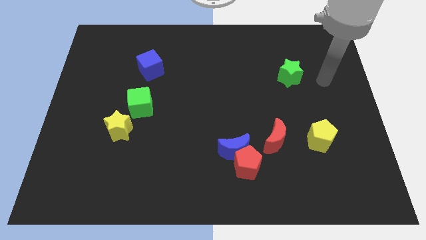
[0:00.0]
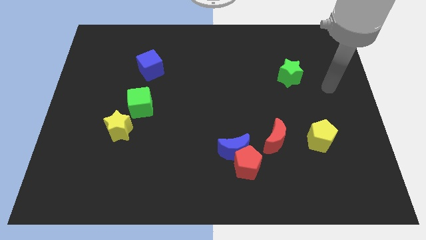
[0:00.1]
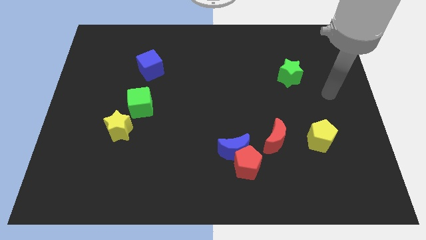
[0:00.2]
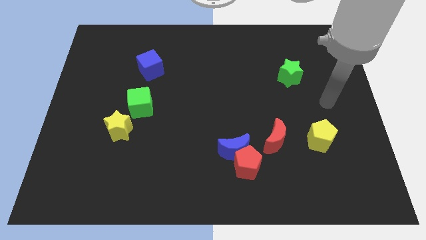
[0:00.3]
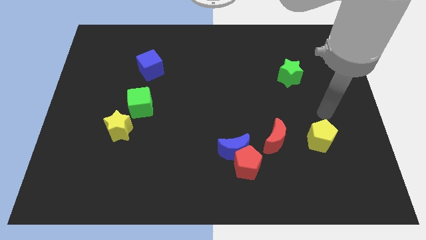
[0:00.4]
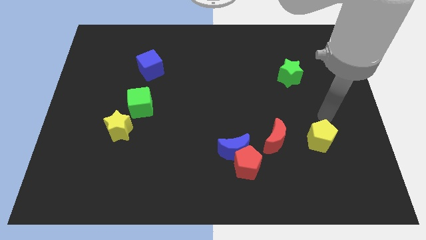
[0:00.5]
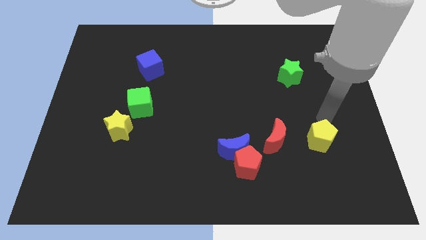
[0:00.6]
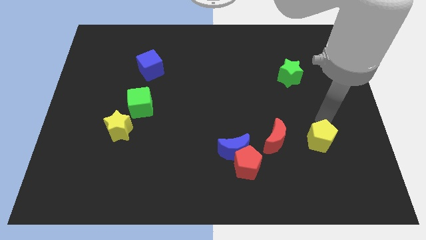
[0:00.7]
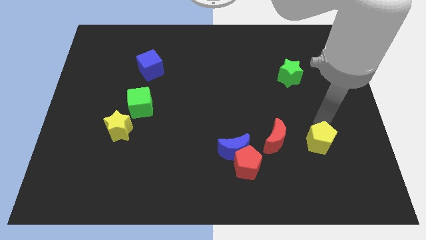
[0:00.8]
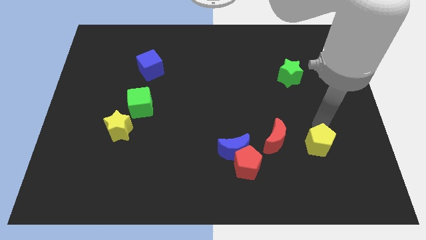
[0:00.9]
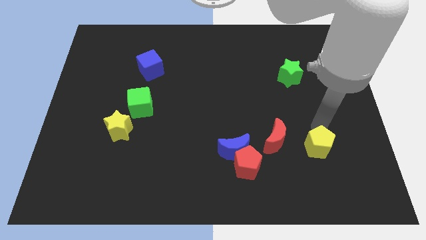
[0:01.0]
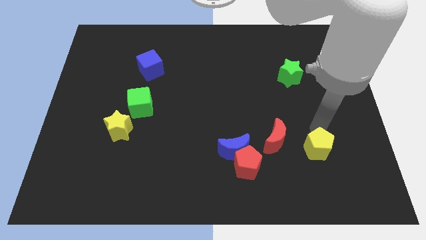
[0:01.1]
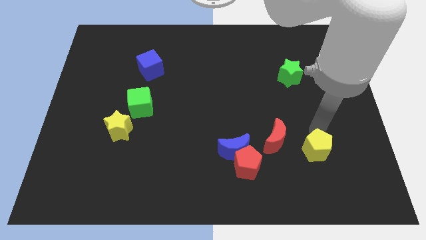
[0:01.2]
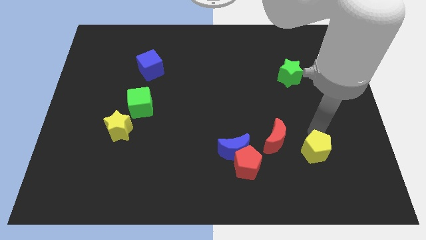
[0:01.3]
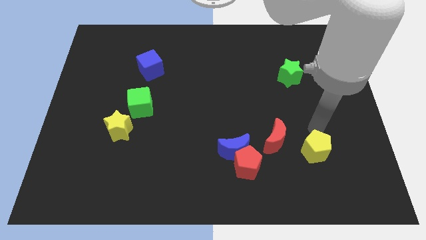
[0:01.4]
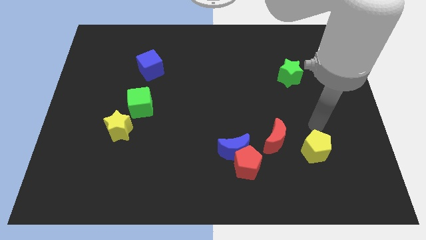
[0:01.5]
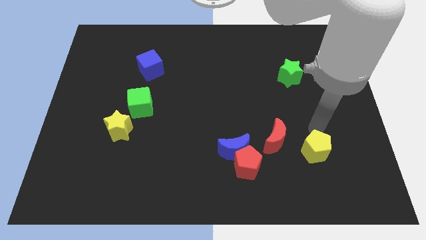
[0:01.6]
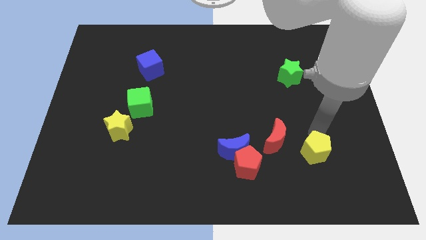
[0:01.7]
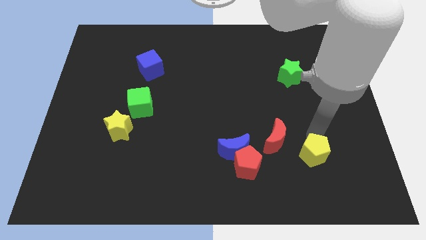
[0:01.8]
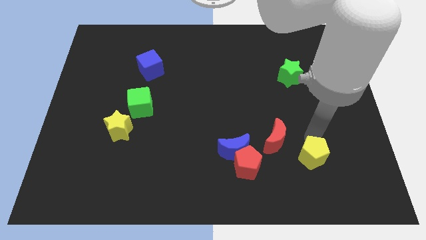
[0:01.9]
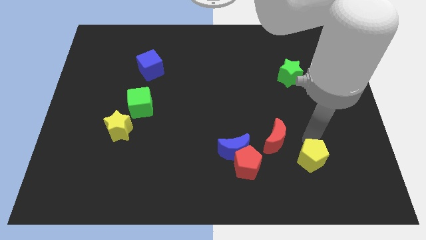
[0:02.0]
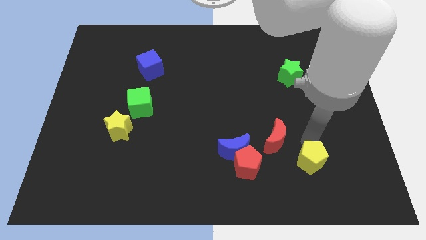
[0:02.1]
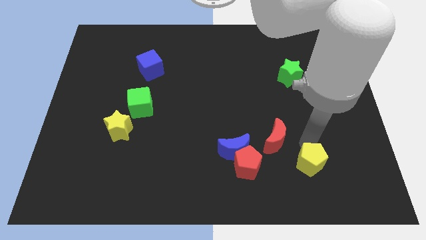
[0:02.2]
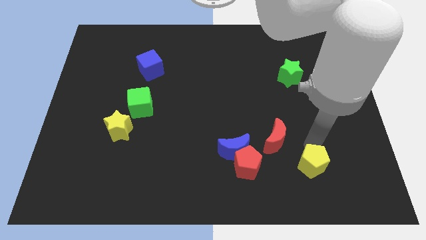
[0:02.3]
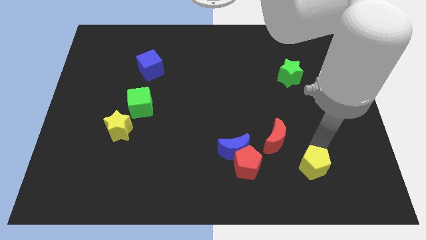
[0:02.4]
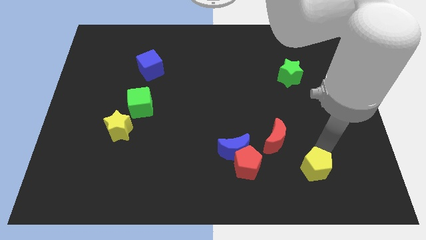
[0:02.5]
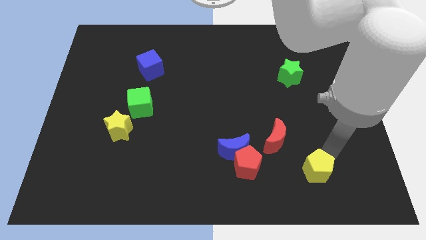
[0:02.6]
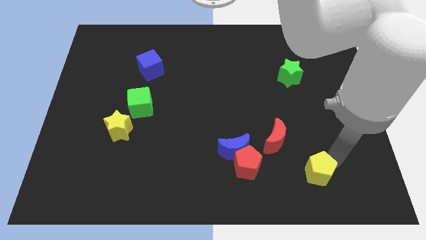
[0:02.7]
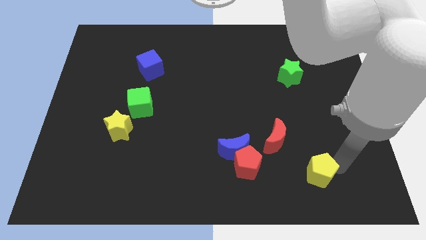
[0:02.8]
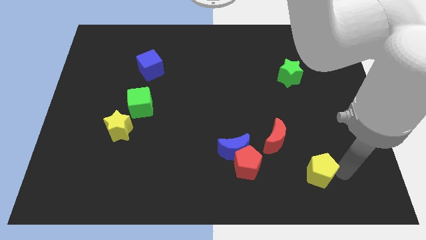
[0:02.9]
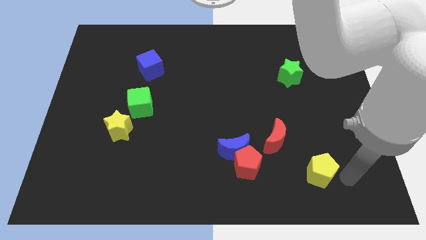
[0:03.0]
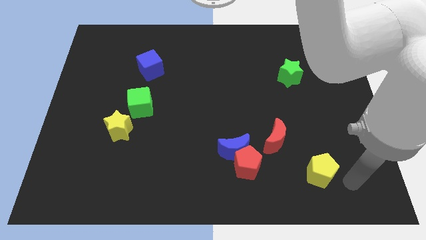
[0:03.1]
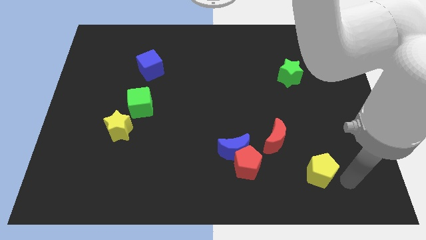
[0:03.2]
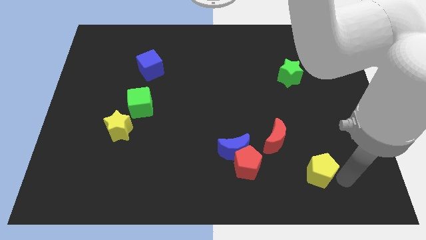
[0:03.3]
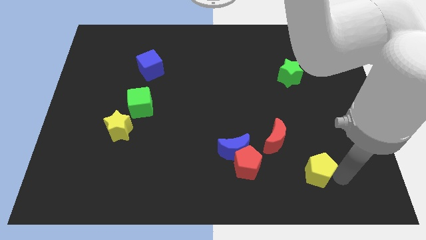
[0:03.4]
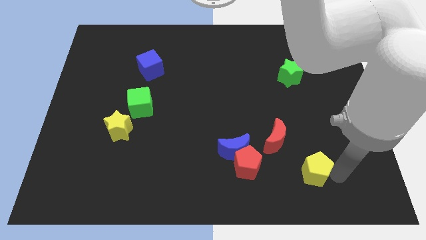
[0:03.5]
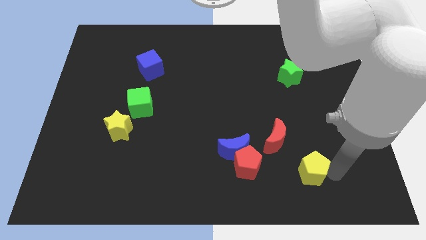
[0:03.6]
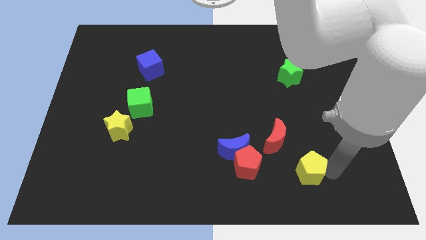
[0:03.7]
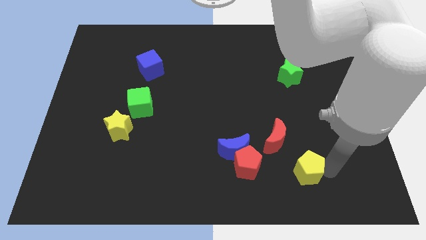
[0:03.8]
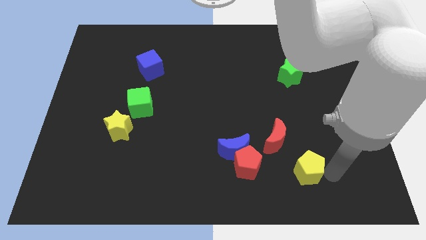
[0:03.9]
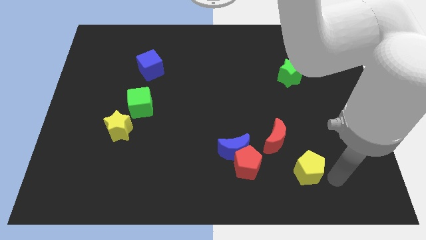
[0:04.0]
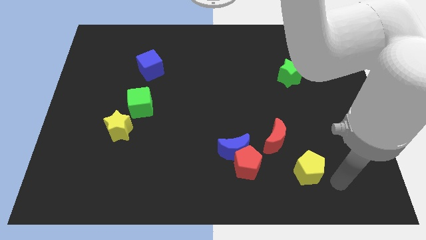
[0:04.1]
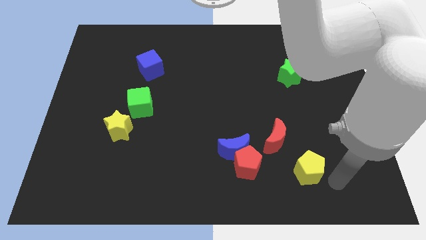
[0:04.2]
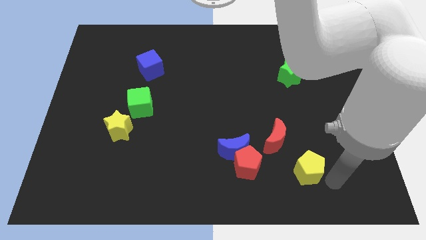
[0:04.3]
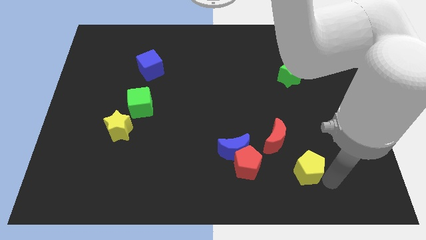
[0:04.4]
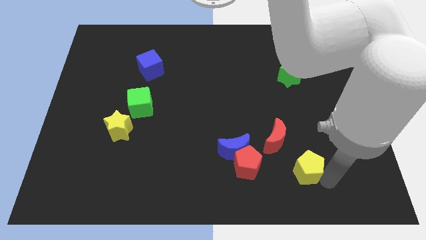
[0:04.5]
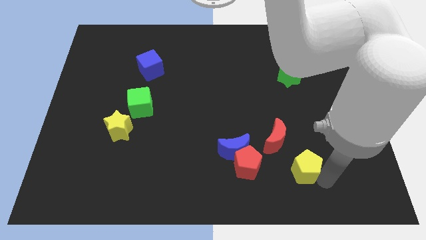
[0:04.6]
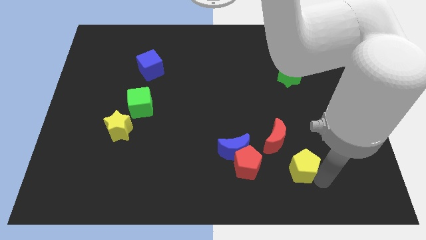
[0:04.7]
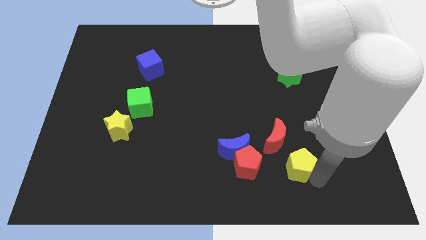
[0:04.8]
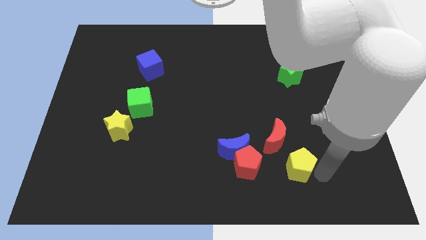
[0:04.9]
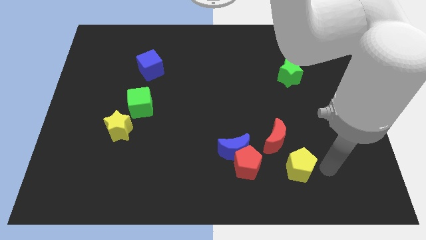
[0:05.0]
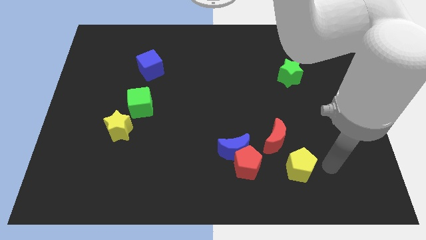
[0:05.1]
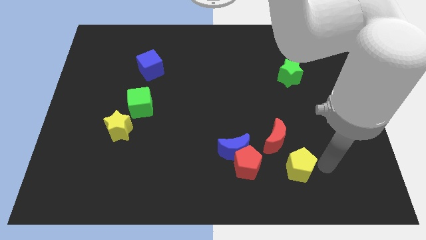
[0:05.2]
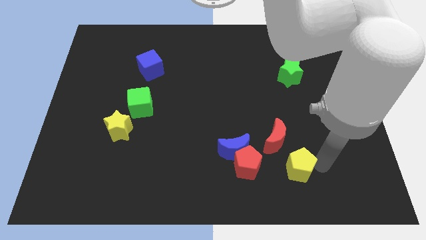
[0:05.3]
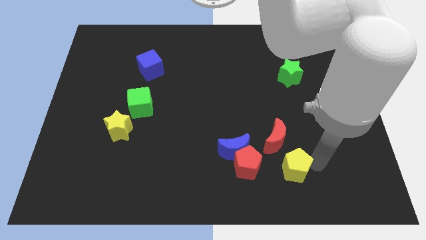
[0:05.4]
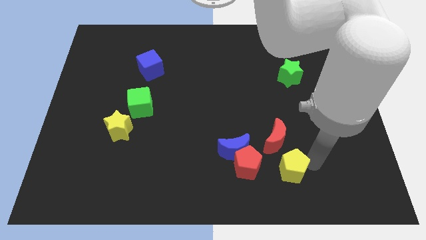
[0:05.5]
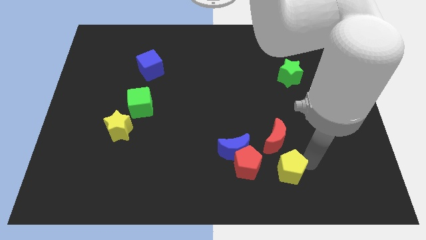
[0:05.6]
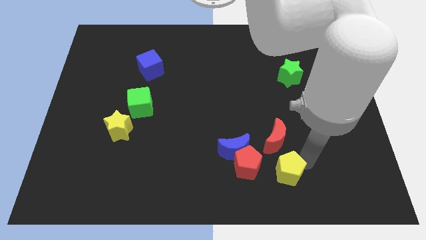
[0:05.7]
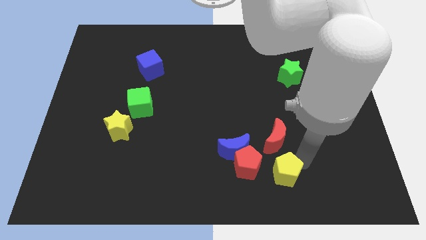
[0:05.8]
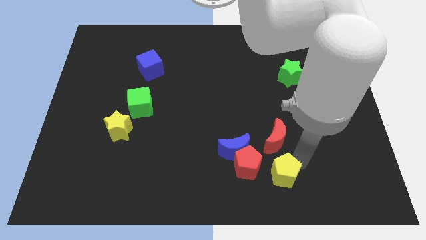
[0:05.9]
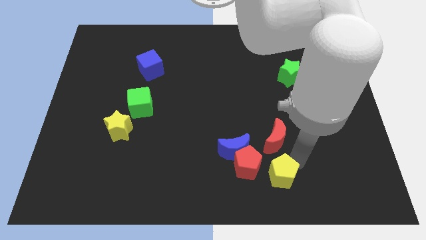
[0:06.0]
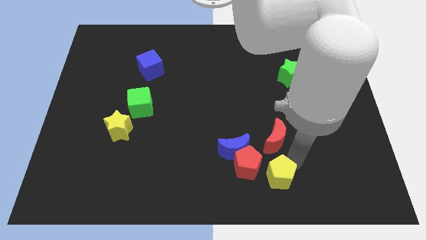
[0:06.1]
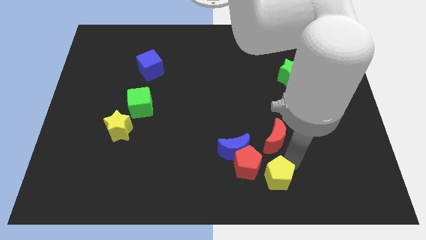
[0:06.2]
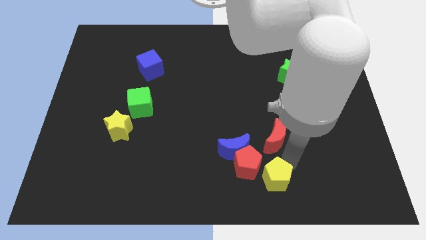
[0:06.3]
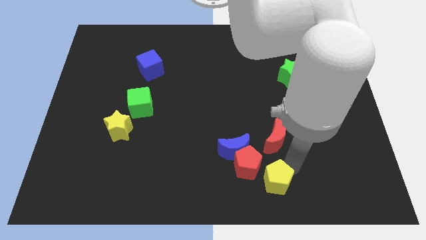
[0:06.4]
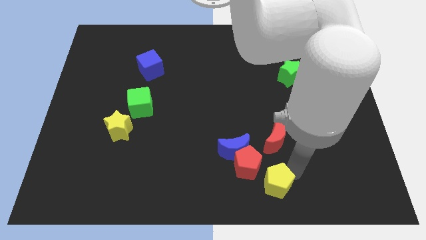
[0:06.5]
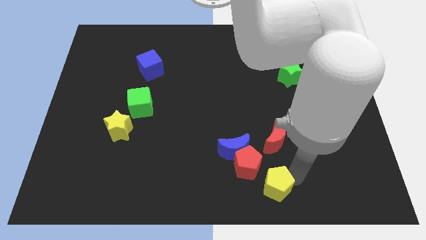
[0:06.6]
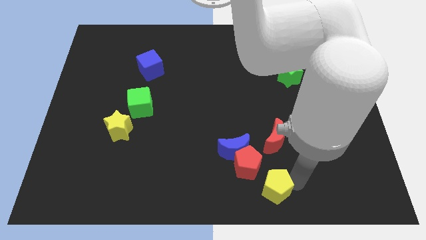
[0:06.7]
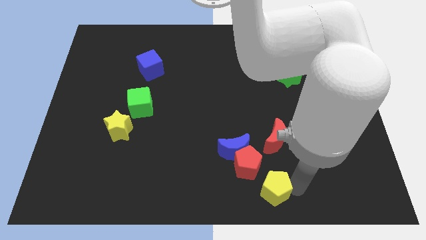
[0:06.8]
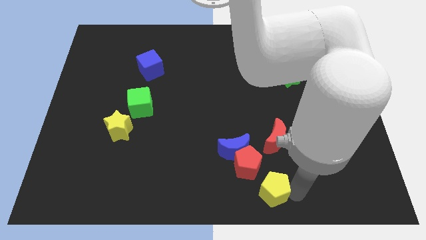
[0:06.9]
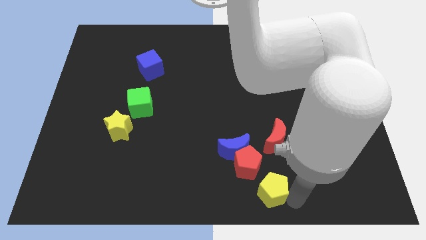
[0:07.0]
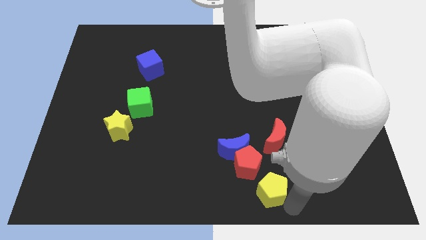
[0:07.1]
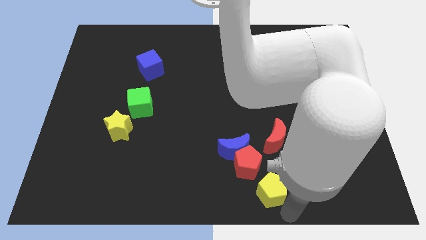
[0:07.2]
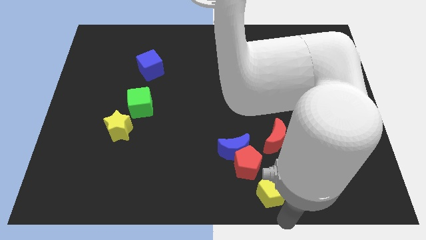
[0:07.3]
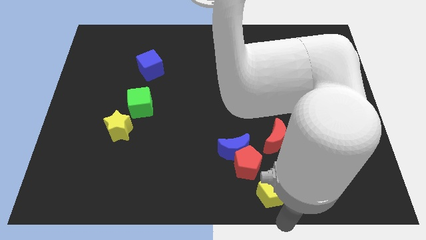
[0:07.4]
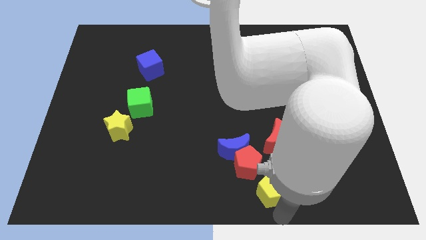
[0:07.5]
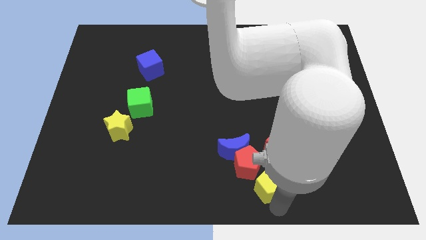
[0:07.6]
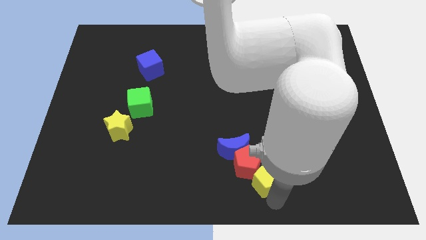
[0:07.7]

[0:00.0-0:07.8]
slide the yellow pentagon close to the red pentagon
